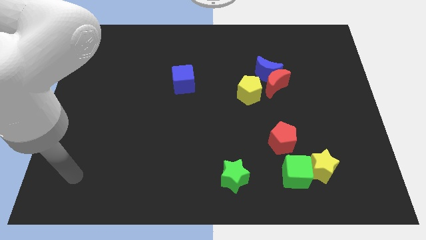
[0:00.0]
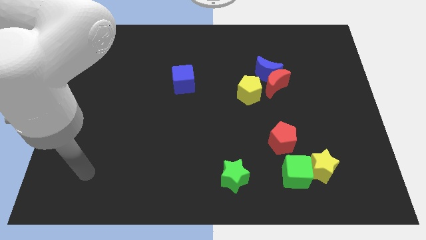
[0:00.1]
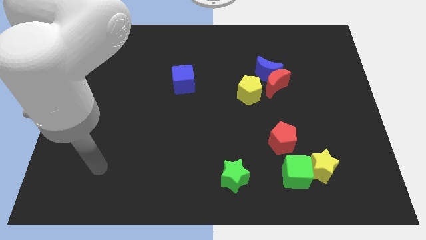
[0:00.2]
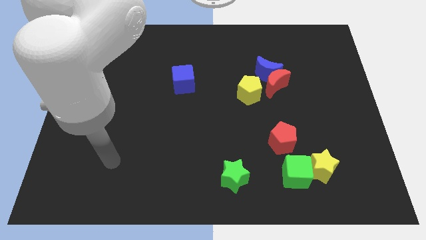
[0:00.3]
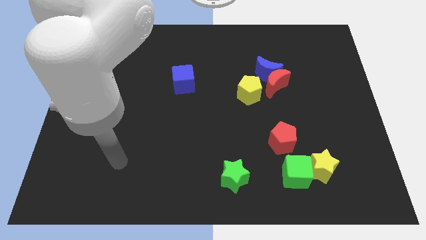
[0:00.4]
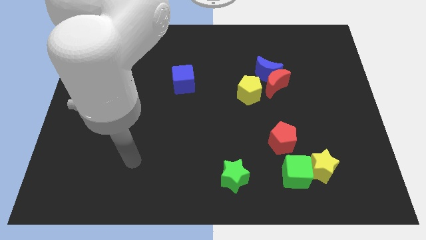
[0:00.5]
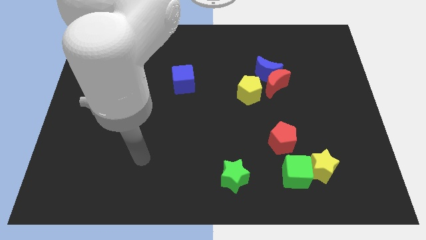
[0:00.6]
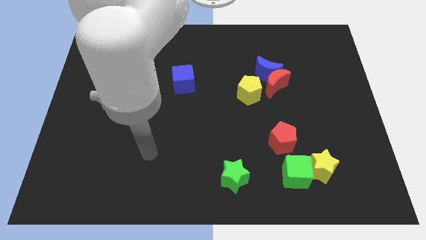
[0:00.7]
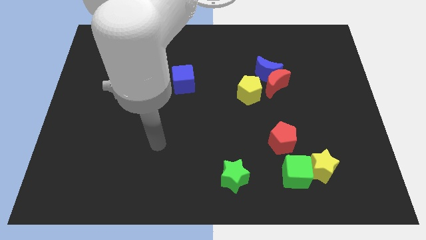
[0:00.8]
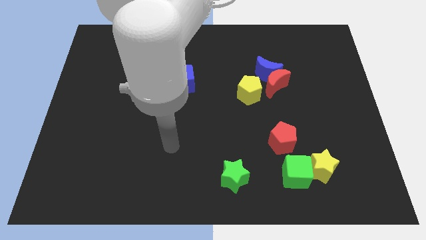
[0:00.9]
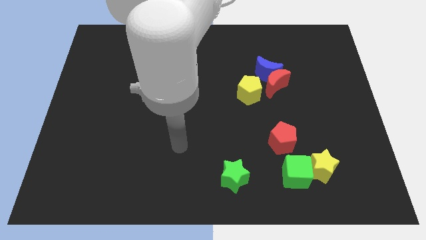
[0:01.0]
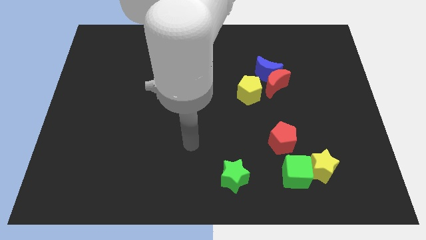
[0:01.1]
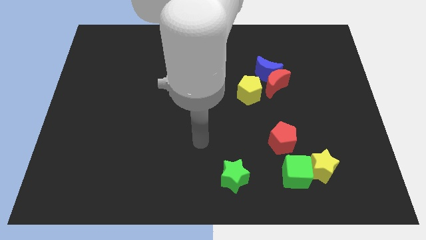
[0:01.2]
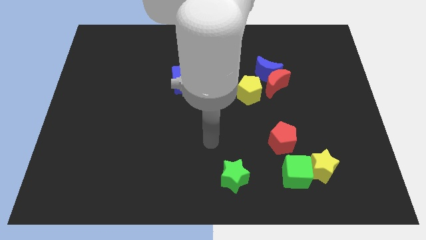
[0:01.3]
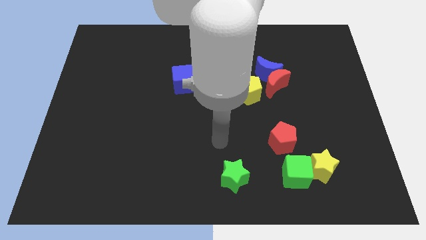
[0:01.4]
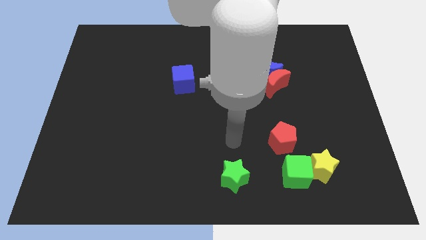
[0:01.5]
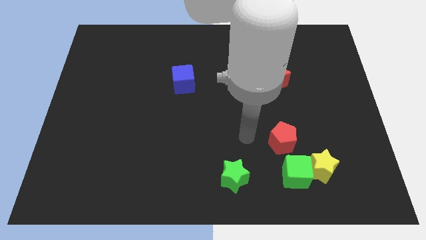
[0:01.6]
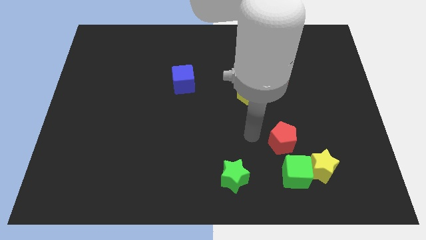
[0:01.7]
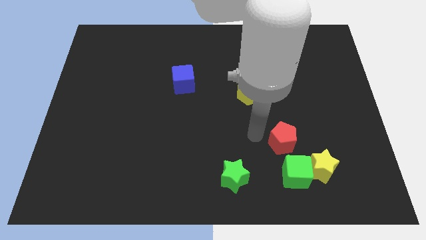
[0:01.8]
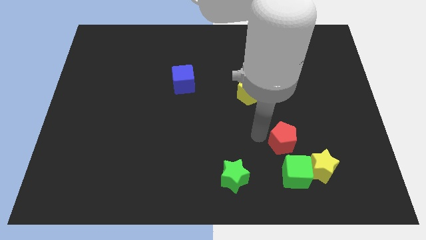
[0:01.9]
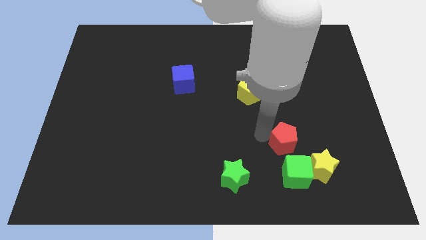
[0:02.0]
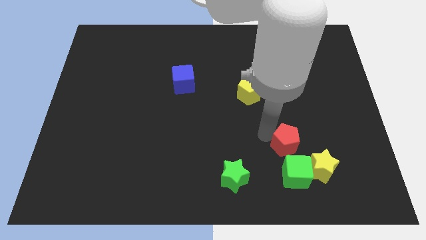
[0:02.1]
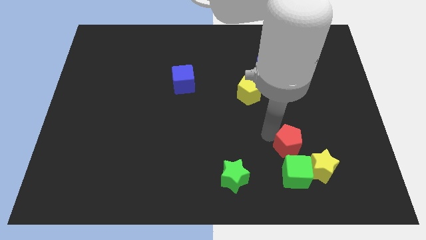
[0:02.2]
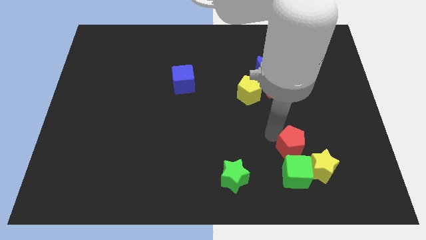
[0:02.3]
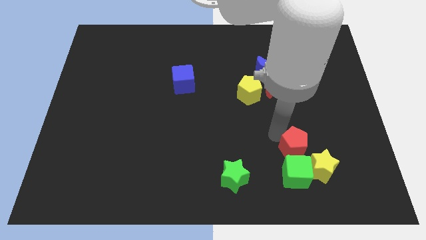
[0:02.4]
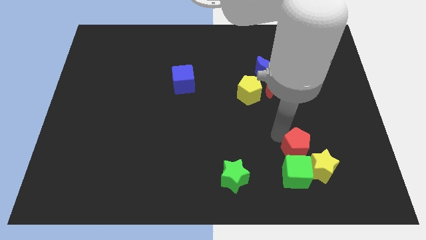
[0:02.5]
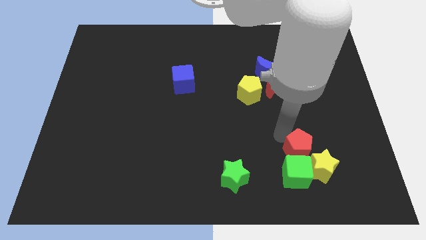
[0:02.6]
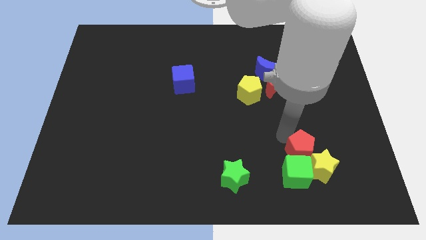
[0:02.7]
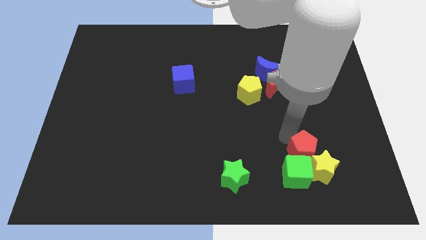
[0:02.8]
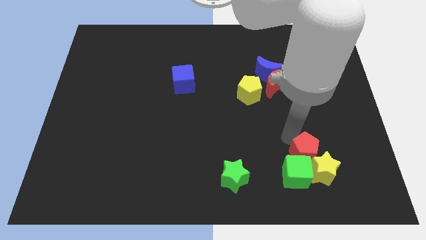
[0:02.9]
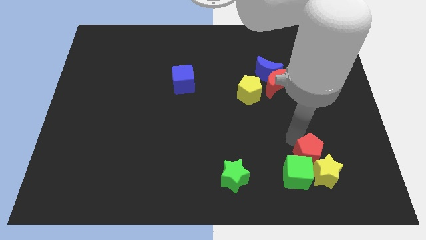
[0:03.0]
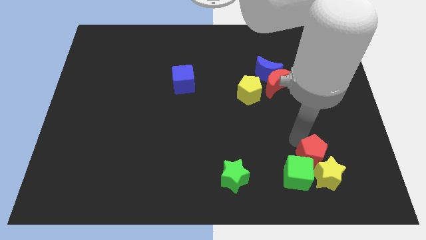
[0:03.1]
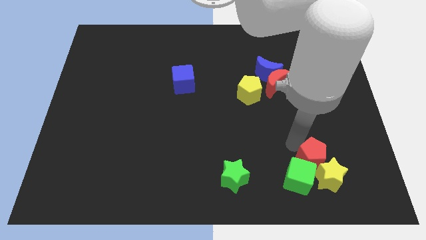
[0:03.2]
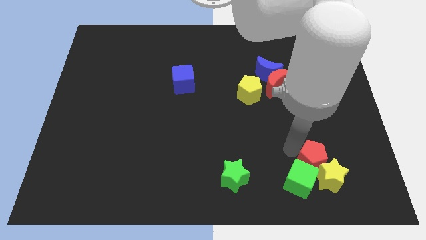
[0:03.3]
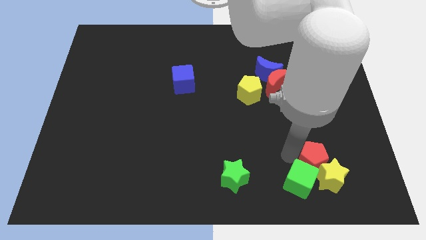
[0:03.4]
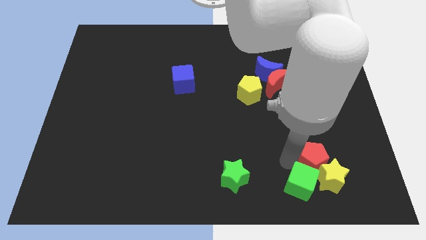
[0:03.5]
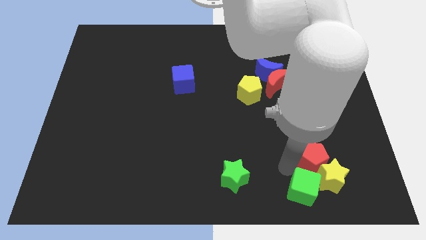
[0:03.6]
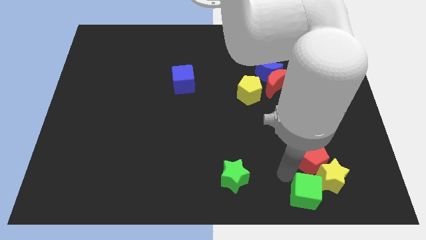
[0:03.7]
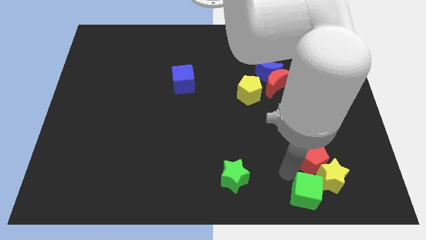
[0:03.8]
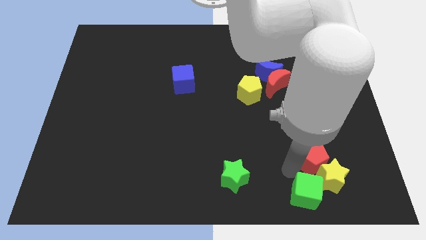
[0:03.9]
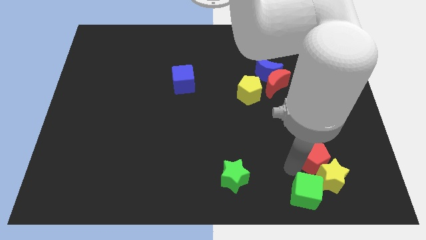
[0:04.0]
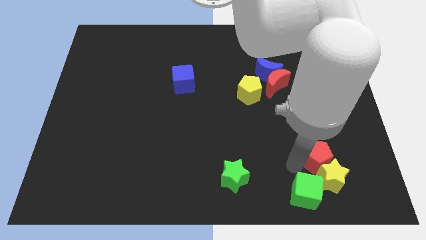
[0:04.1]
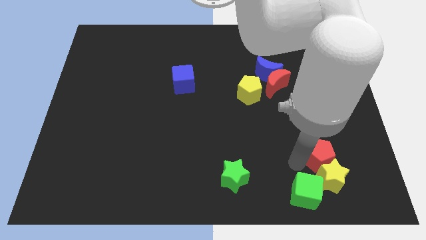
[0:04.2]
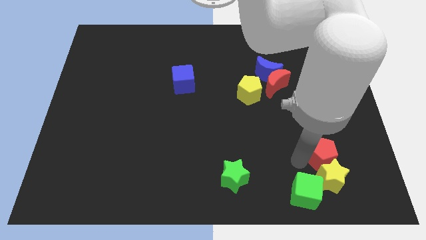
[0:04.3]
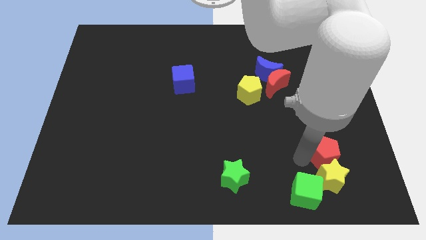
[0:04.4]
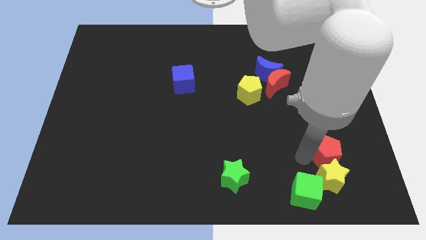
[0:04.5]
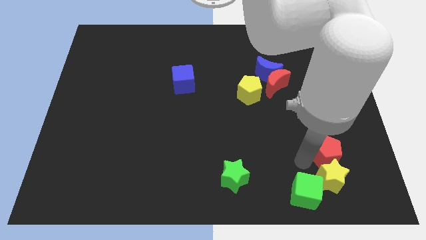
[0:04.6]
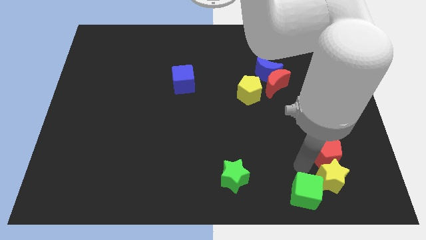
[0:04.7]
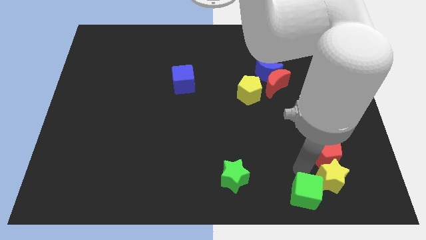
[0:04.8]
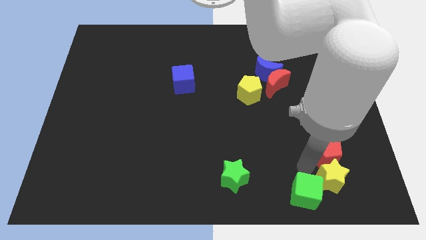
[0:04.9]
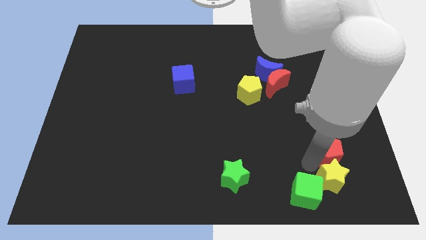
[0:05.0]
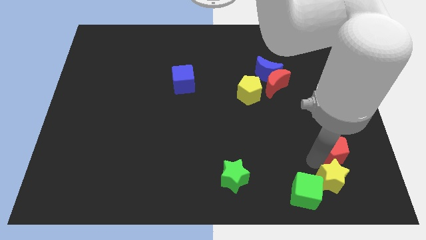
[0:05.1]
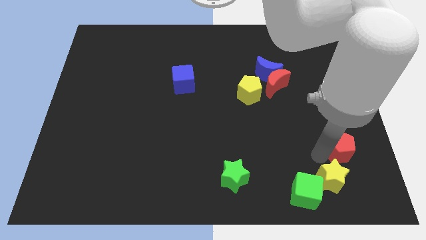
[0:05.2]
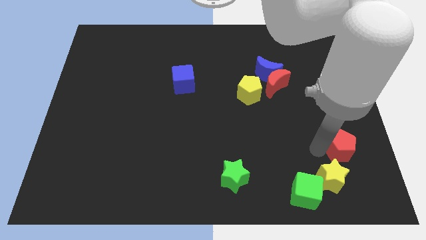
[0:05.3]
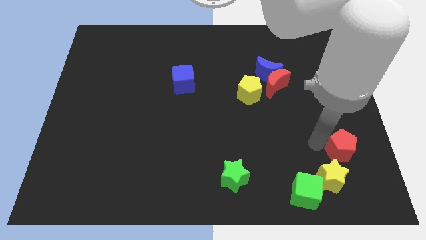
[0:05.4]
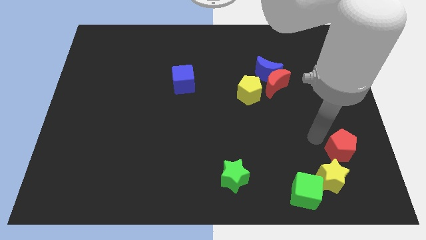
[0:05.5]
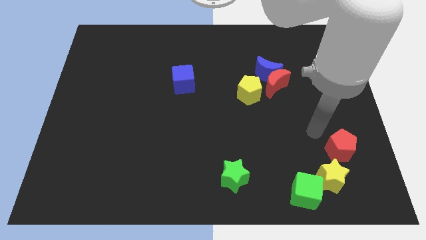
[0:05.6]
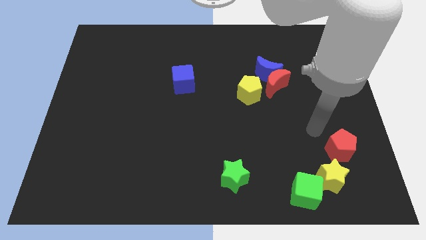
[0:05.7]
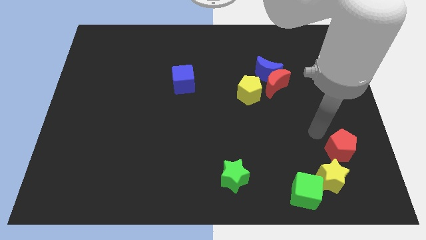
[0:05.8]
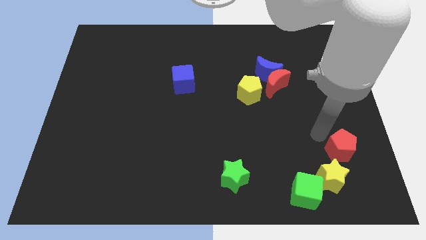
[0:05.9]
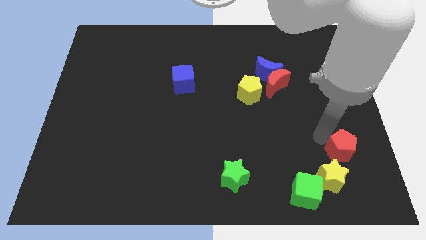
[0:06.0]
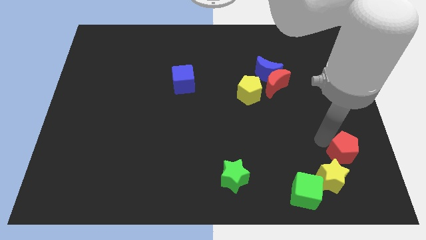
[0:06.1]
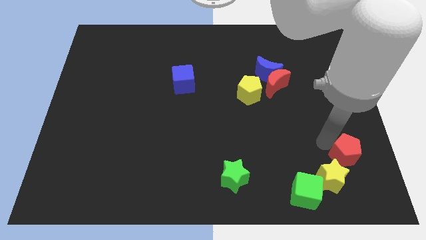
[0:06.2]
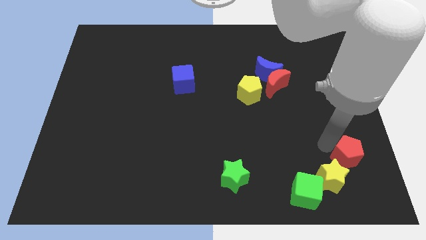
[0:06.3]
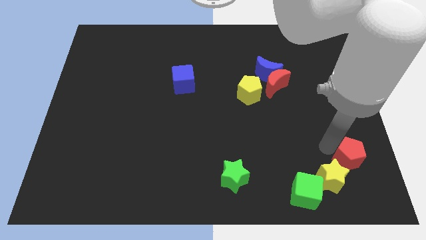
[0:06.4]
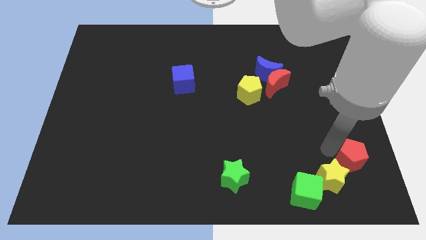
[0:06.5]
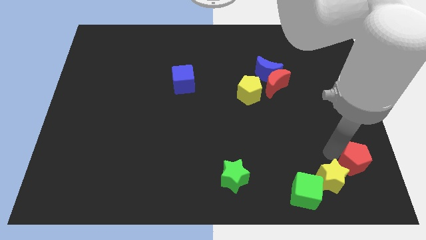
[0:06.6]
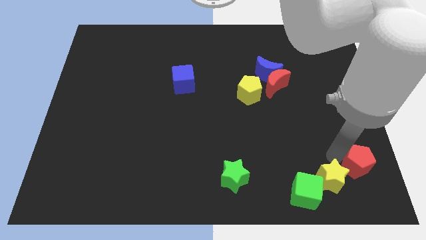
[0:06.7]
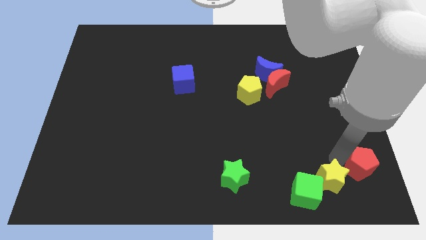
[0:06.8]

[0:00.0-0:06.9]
push the red pentagon to the bottom right
